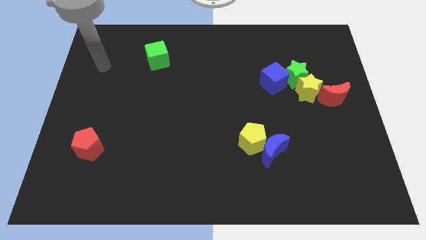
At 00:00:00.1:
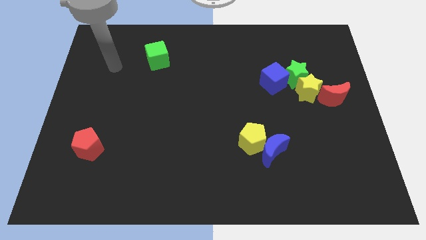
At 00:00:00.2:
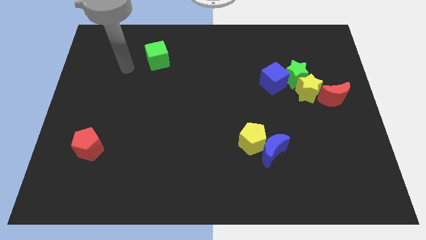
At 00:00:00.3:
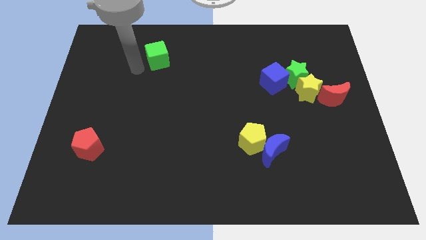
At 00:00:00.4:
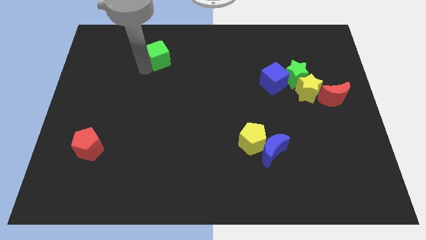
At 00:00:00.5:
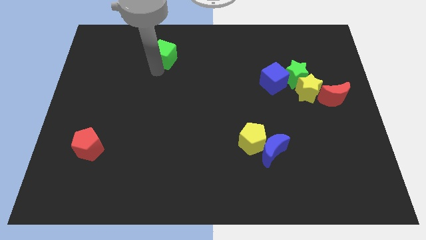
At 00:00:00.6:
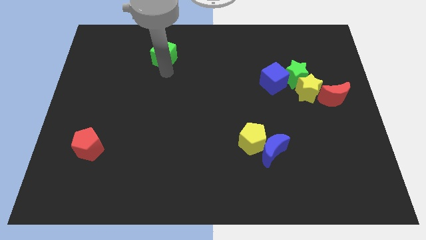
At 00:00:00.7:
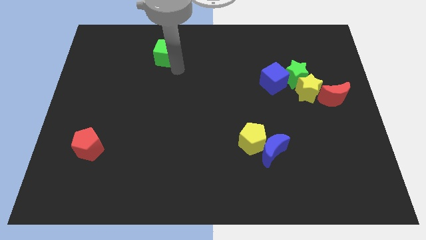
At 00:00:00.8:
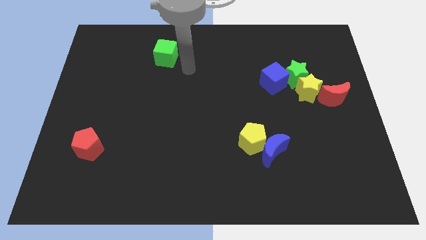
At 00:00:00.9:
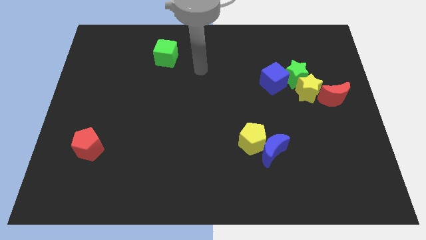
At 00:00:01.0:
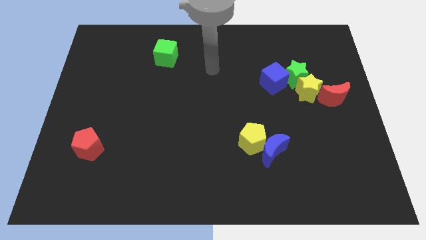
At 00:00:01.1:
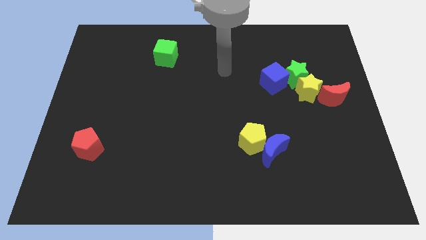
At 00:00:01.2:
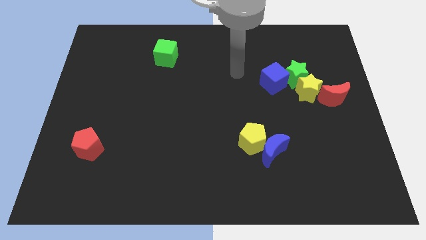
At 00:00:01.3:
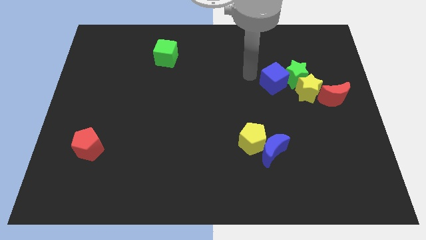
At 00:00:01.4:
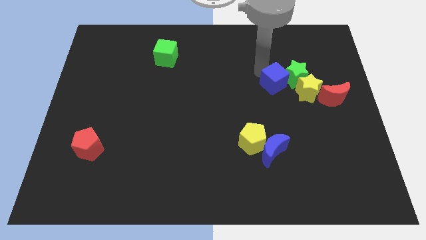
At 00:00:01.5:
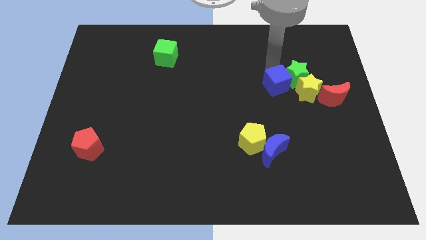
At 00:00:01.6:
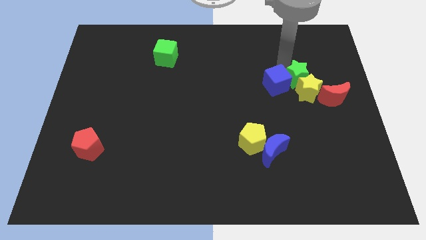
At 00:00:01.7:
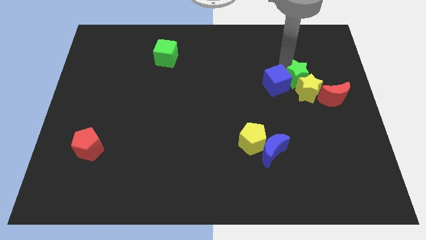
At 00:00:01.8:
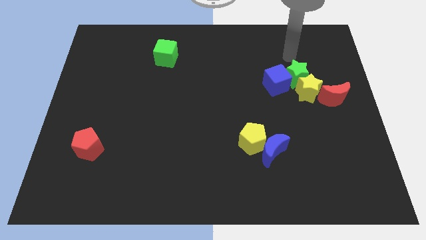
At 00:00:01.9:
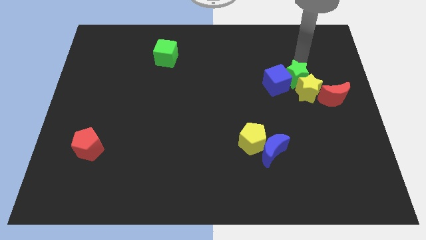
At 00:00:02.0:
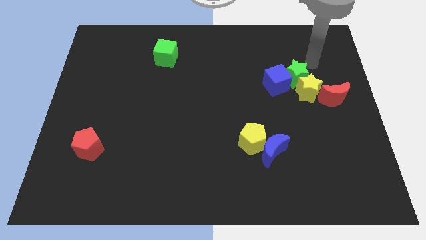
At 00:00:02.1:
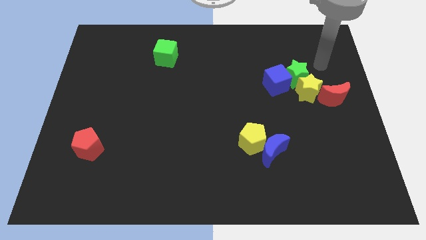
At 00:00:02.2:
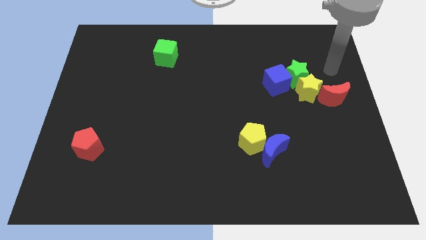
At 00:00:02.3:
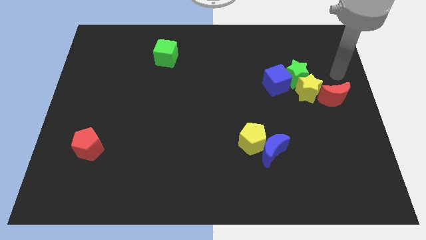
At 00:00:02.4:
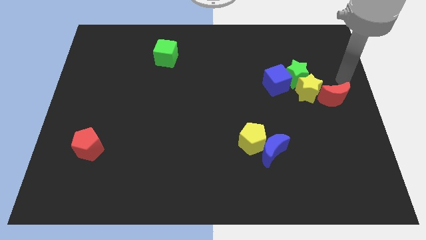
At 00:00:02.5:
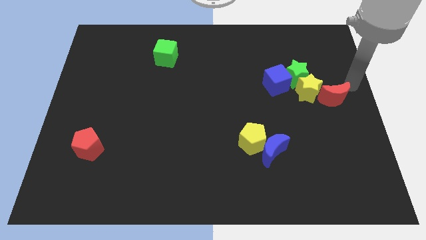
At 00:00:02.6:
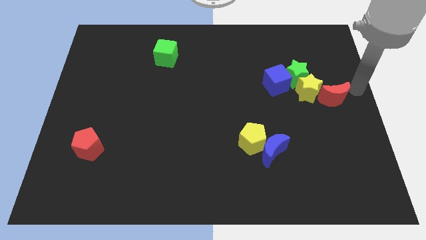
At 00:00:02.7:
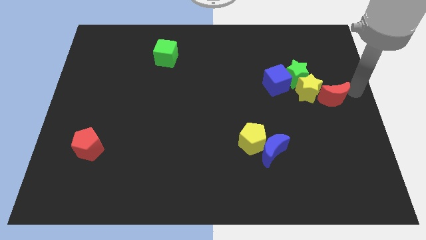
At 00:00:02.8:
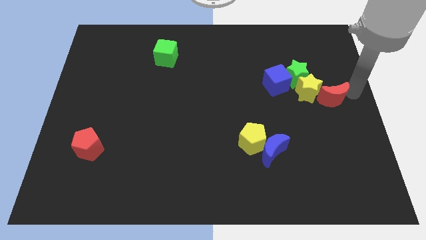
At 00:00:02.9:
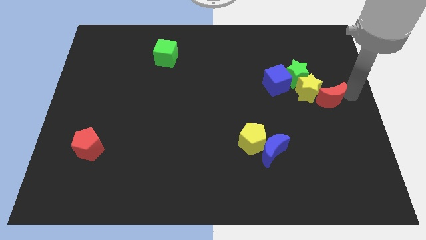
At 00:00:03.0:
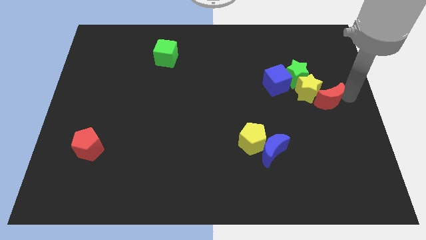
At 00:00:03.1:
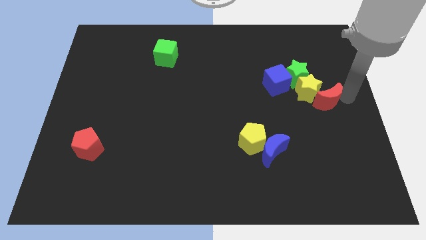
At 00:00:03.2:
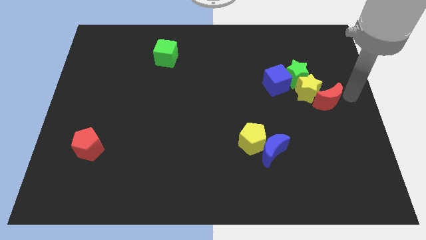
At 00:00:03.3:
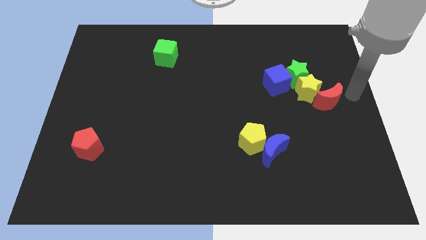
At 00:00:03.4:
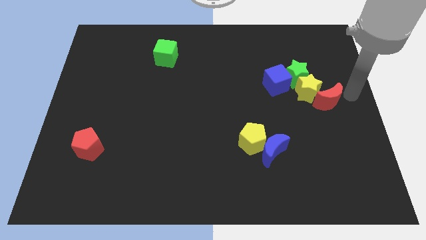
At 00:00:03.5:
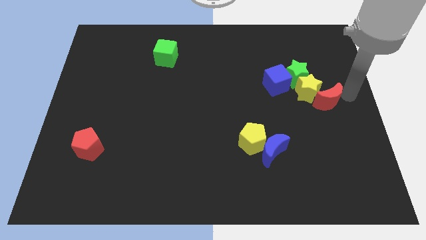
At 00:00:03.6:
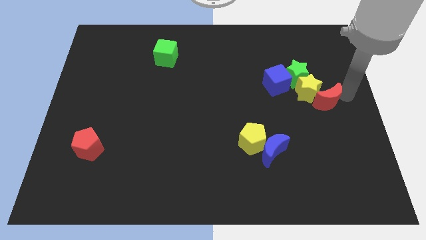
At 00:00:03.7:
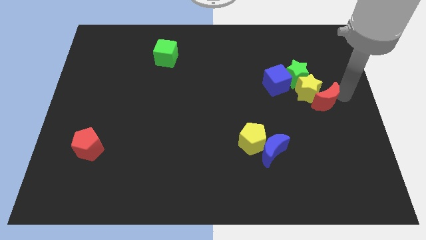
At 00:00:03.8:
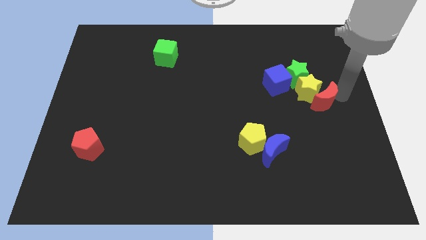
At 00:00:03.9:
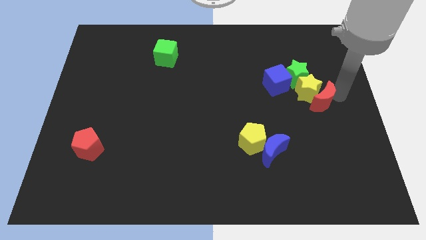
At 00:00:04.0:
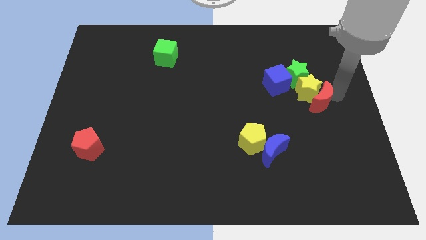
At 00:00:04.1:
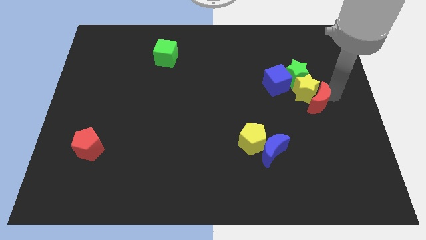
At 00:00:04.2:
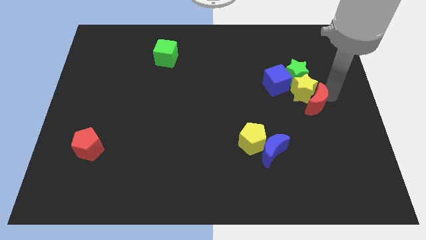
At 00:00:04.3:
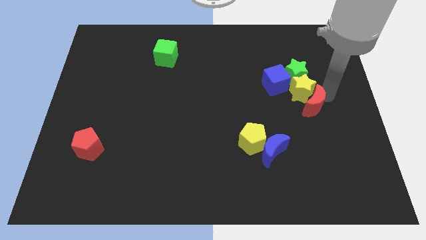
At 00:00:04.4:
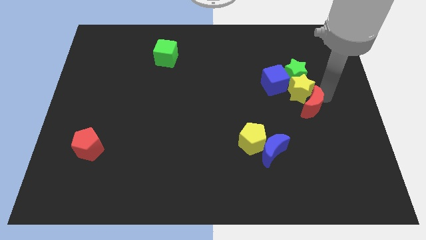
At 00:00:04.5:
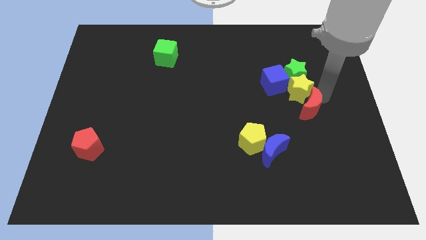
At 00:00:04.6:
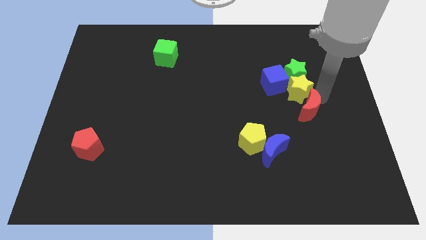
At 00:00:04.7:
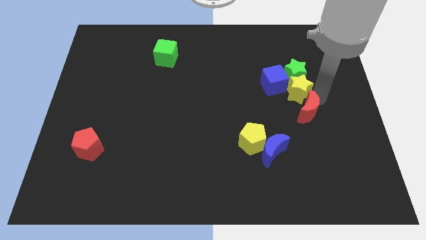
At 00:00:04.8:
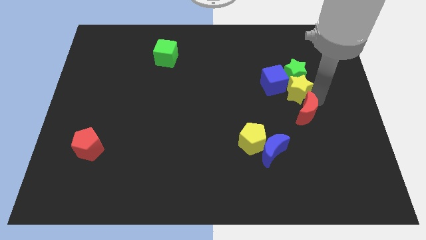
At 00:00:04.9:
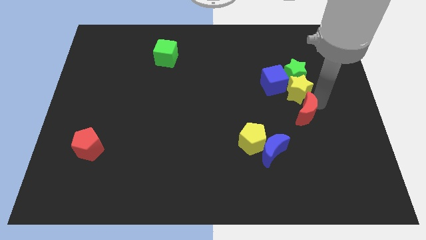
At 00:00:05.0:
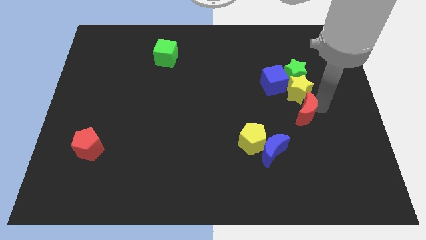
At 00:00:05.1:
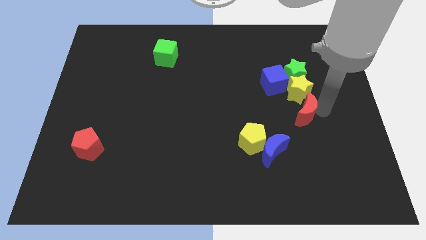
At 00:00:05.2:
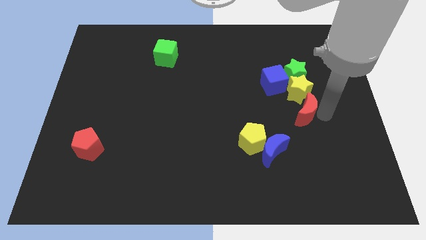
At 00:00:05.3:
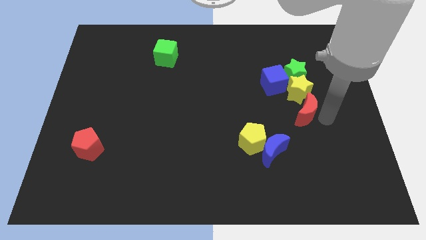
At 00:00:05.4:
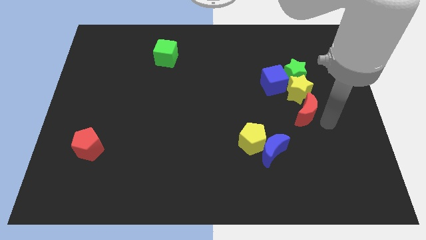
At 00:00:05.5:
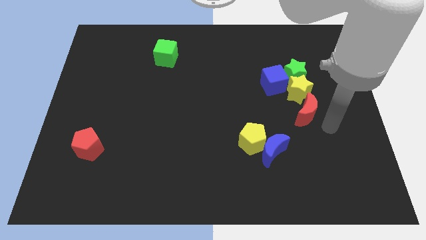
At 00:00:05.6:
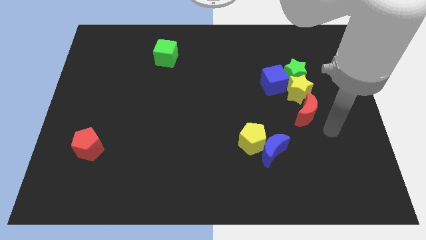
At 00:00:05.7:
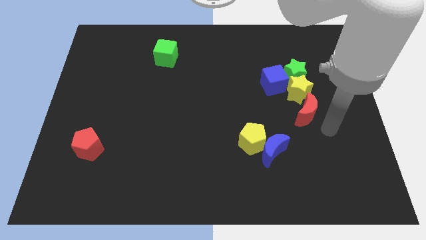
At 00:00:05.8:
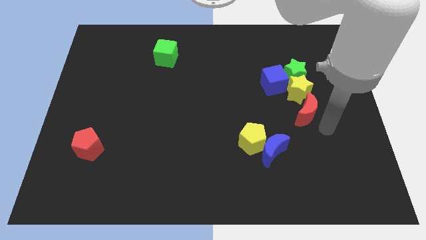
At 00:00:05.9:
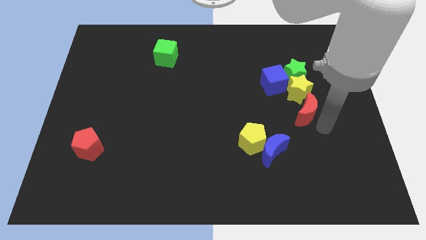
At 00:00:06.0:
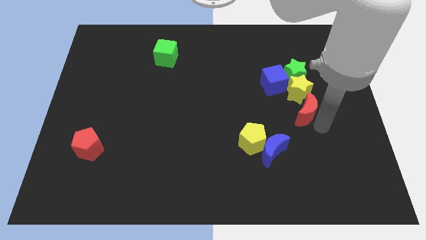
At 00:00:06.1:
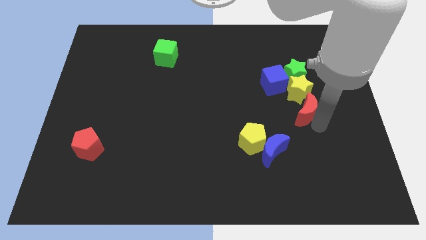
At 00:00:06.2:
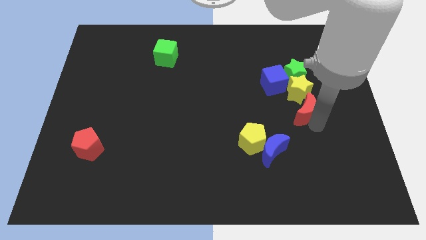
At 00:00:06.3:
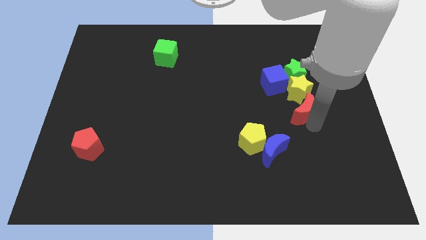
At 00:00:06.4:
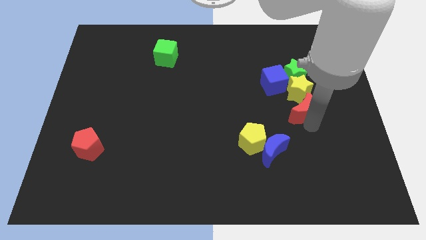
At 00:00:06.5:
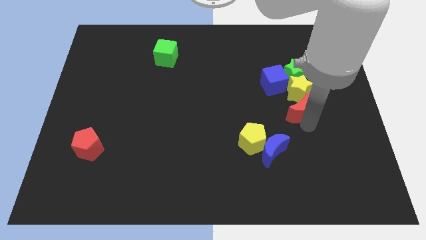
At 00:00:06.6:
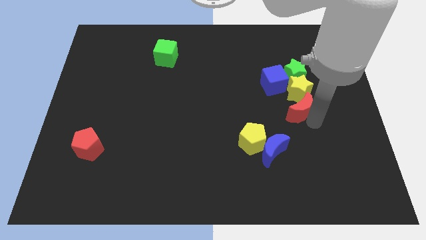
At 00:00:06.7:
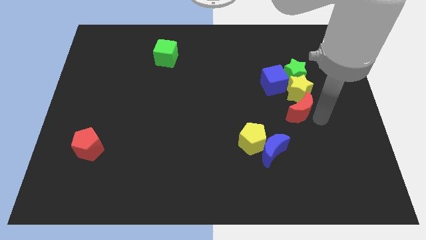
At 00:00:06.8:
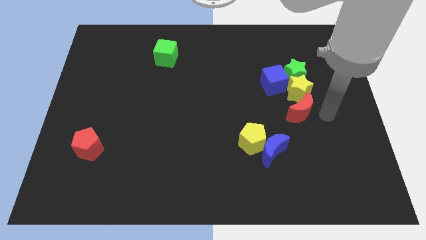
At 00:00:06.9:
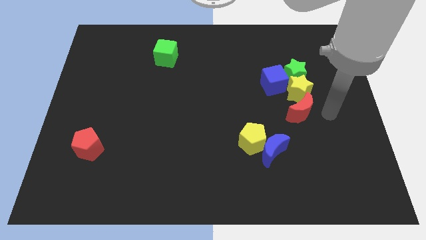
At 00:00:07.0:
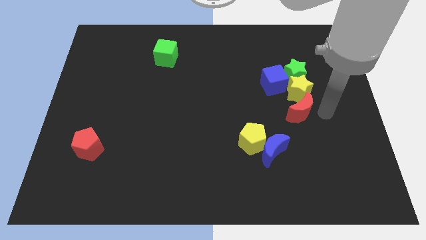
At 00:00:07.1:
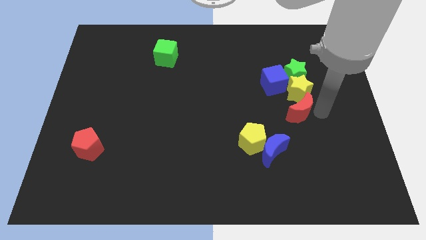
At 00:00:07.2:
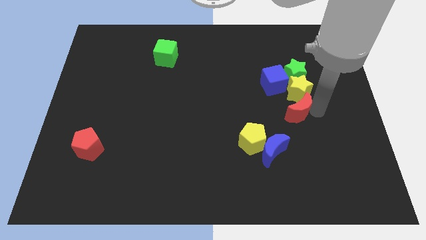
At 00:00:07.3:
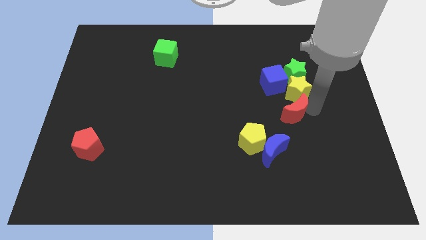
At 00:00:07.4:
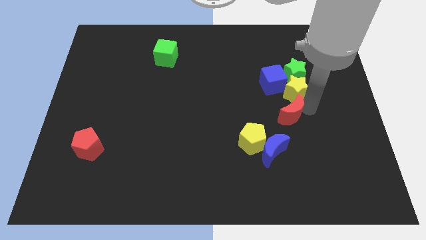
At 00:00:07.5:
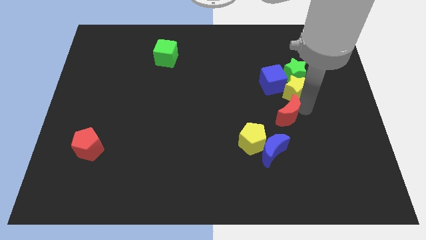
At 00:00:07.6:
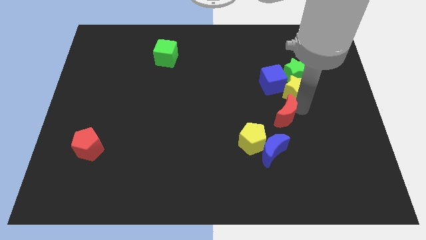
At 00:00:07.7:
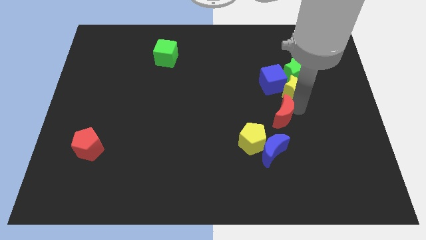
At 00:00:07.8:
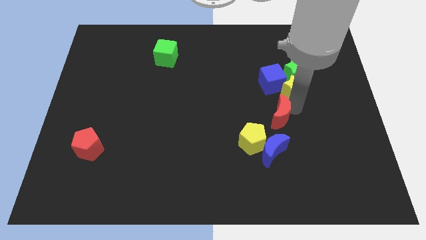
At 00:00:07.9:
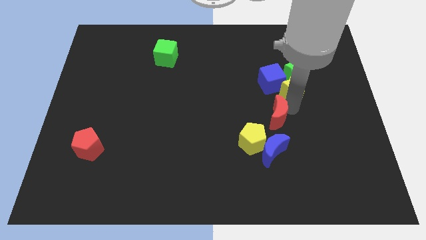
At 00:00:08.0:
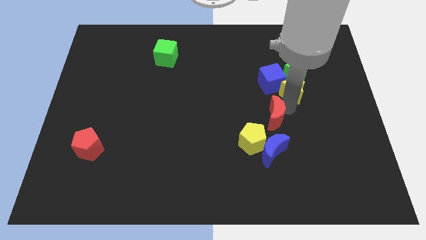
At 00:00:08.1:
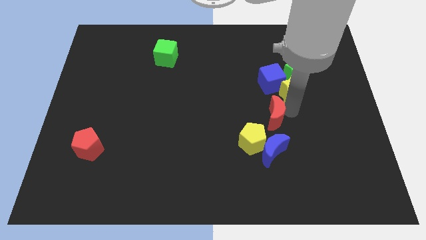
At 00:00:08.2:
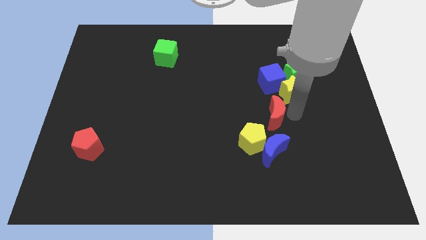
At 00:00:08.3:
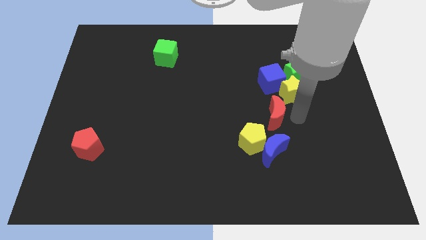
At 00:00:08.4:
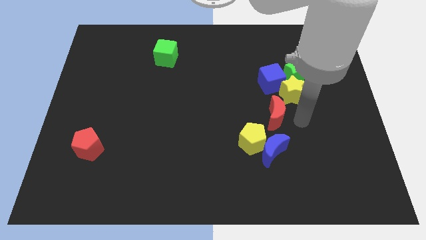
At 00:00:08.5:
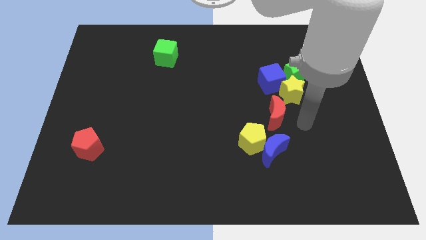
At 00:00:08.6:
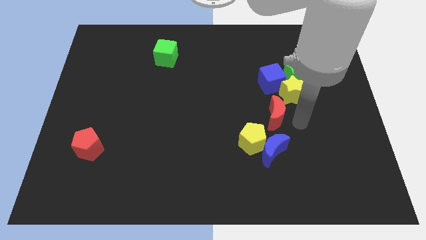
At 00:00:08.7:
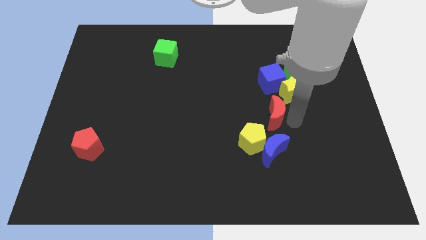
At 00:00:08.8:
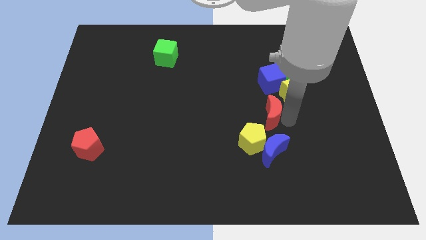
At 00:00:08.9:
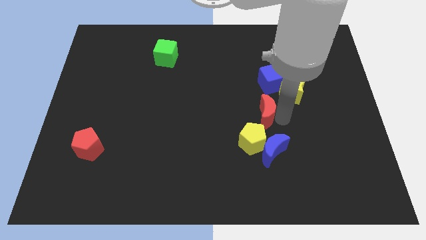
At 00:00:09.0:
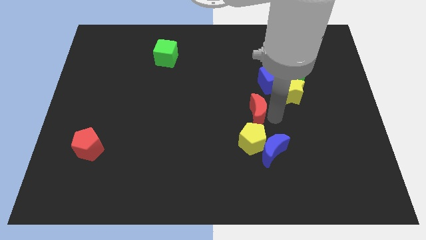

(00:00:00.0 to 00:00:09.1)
slide the red moon to the middle of the board
